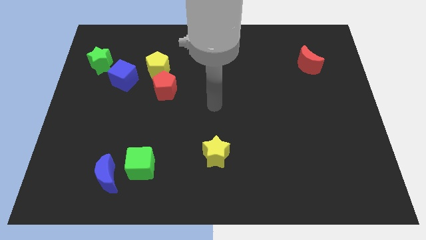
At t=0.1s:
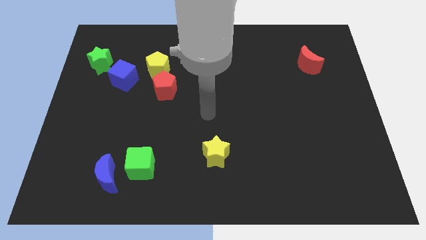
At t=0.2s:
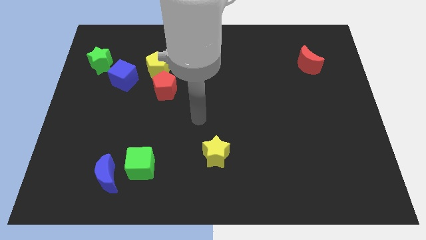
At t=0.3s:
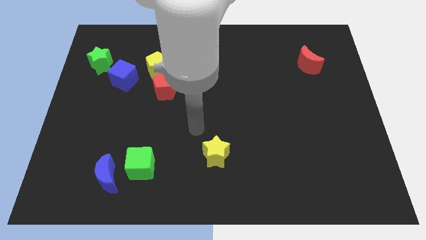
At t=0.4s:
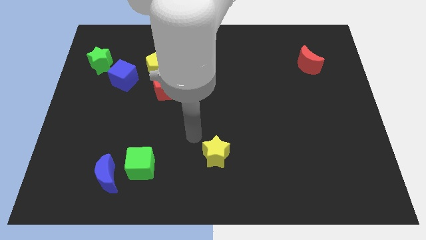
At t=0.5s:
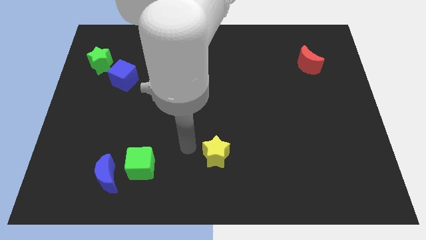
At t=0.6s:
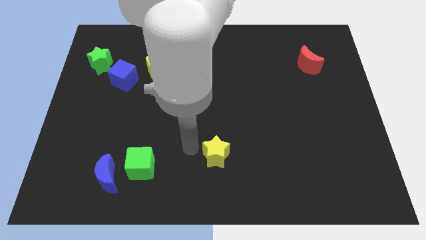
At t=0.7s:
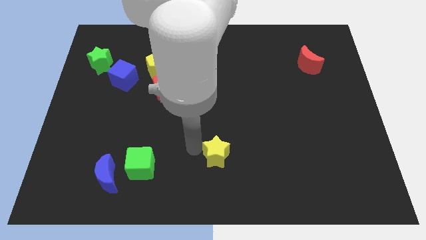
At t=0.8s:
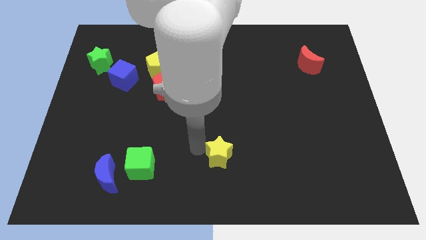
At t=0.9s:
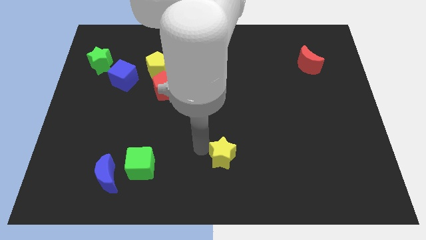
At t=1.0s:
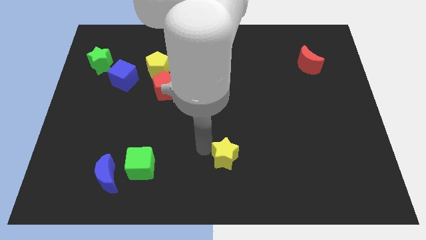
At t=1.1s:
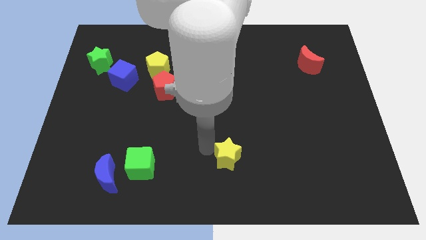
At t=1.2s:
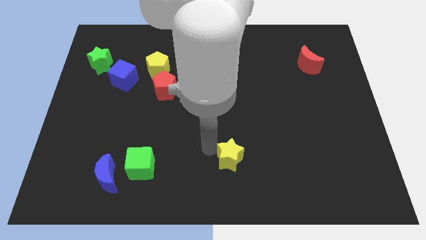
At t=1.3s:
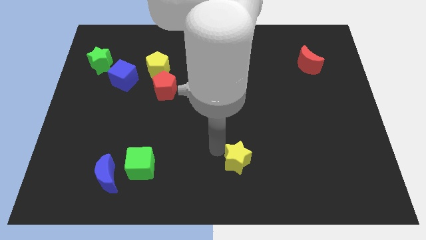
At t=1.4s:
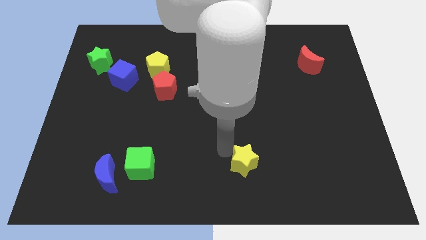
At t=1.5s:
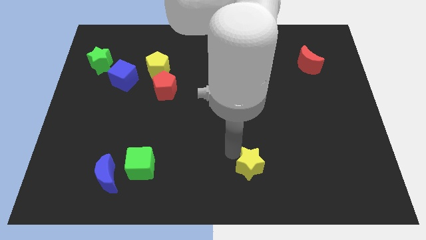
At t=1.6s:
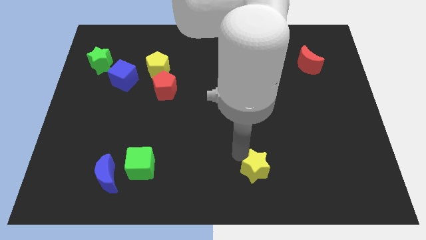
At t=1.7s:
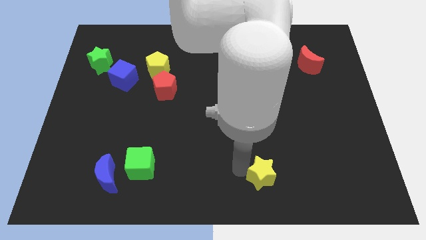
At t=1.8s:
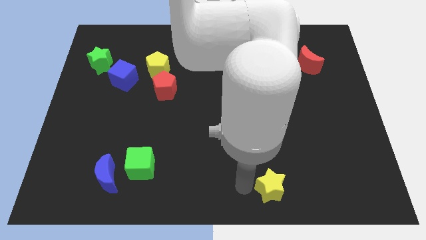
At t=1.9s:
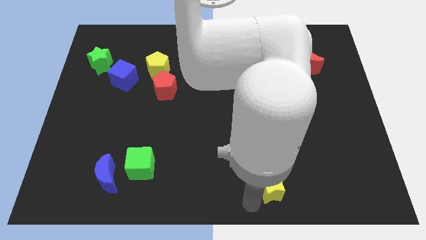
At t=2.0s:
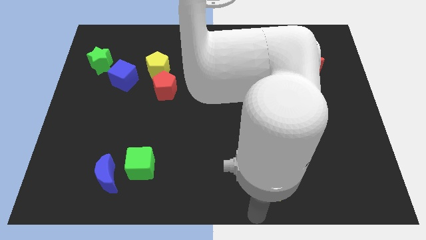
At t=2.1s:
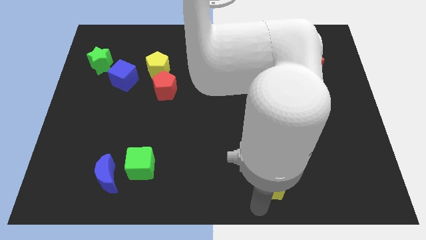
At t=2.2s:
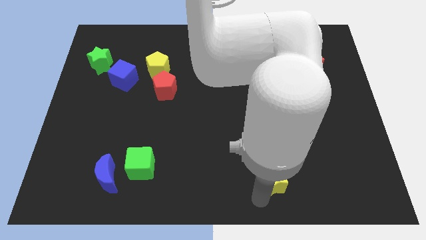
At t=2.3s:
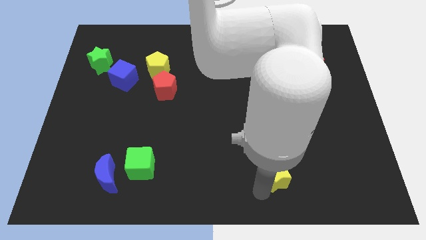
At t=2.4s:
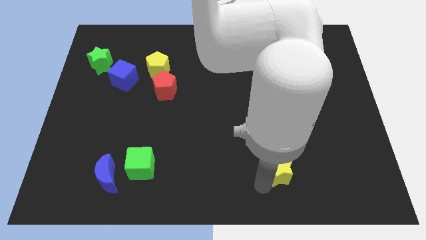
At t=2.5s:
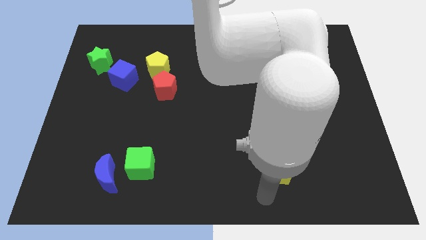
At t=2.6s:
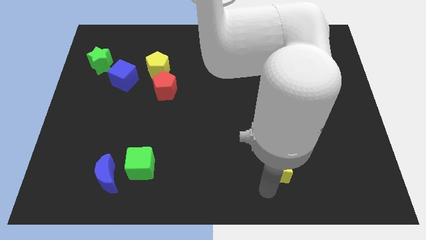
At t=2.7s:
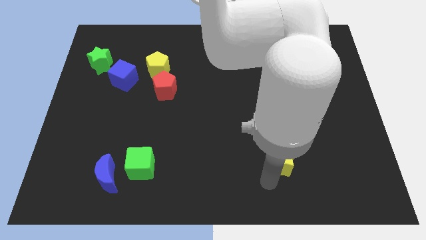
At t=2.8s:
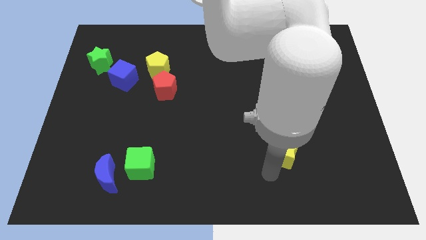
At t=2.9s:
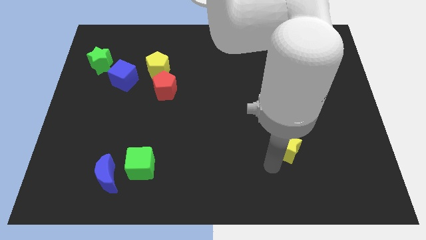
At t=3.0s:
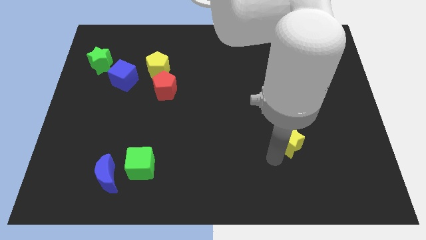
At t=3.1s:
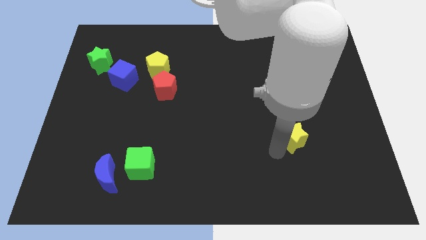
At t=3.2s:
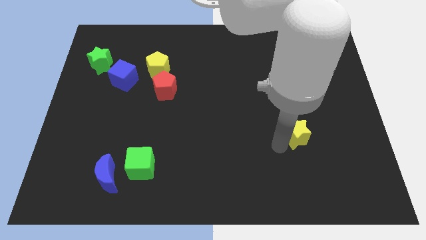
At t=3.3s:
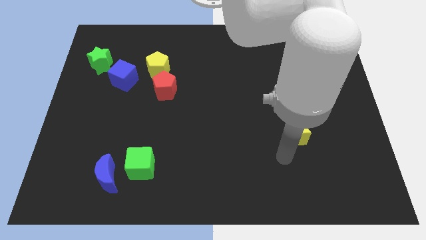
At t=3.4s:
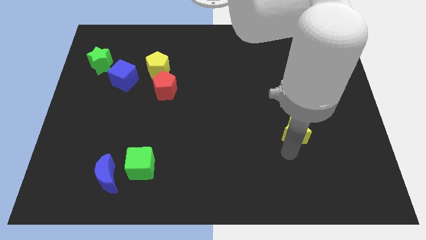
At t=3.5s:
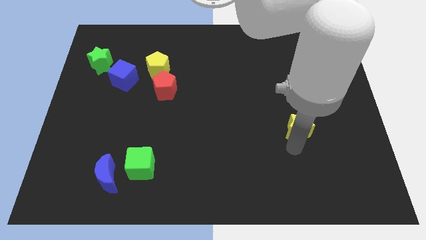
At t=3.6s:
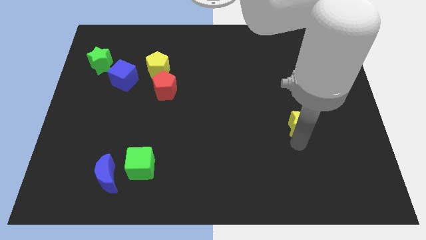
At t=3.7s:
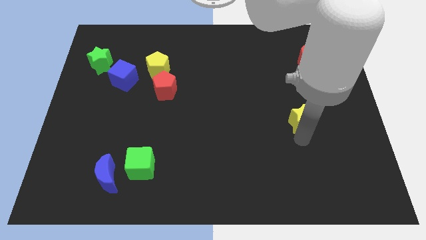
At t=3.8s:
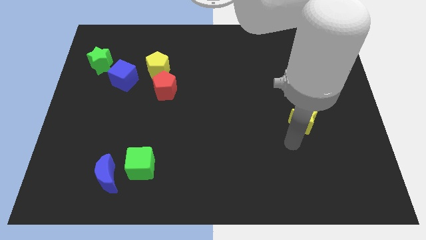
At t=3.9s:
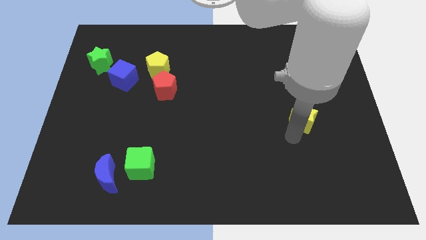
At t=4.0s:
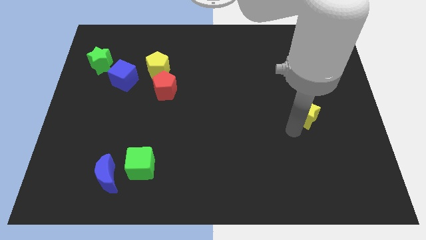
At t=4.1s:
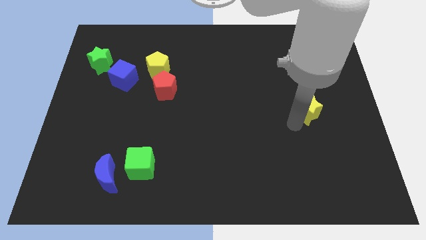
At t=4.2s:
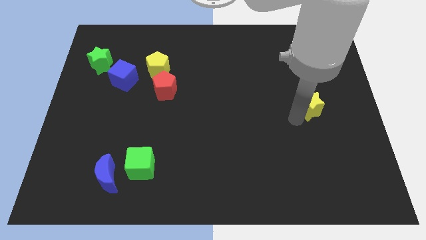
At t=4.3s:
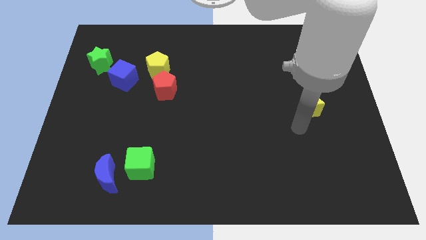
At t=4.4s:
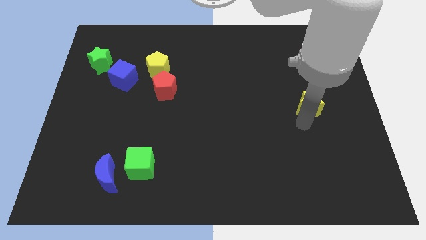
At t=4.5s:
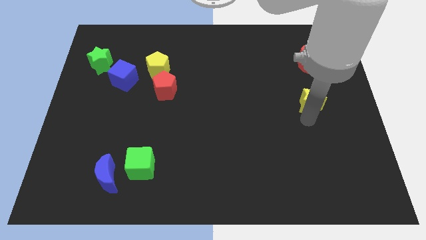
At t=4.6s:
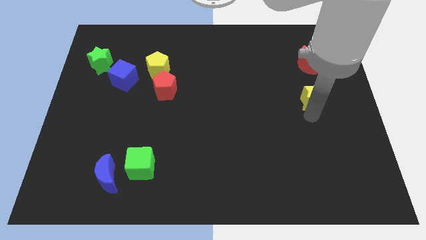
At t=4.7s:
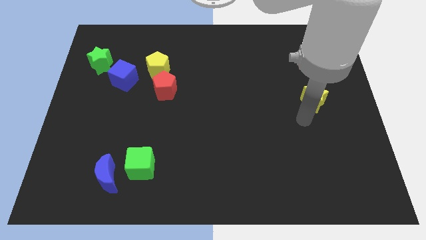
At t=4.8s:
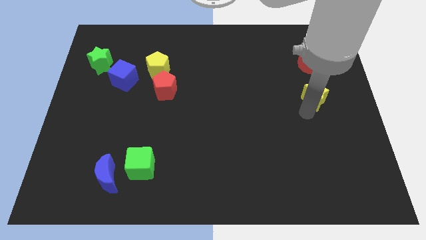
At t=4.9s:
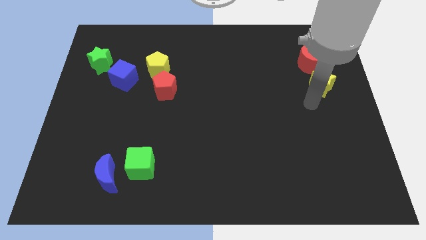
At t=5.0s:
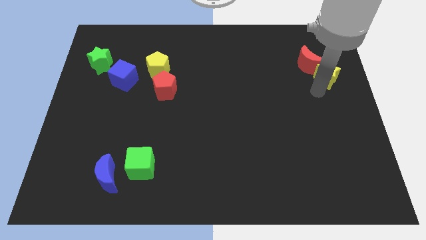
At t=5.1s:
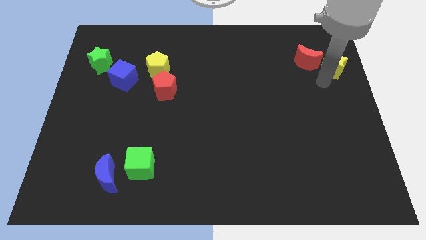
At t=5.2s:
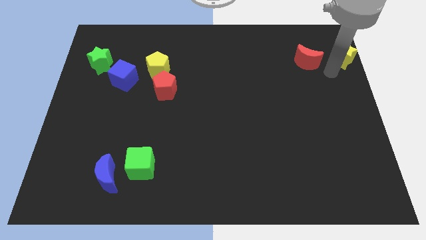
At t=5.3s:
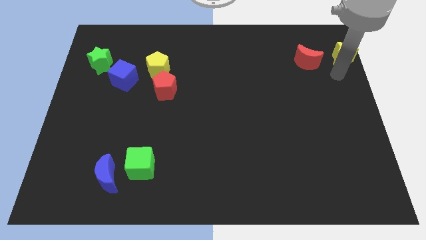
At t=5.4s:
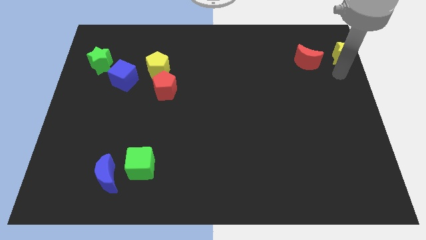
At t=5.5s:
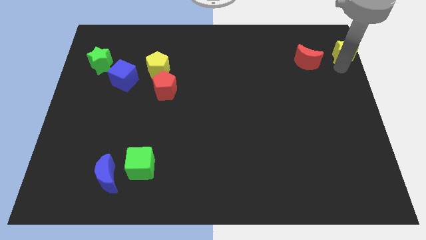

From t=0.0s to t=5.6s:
push the yellow star to the upper right corner

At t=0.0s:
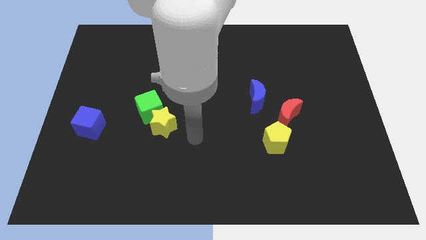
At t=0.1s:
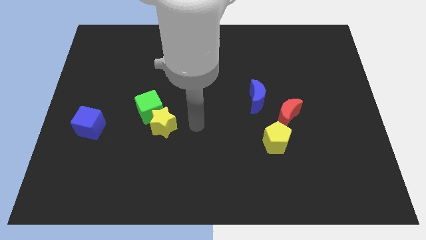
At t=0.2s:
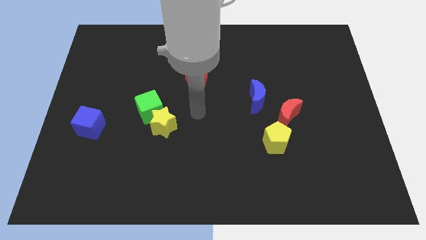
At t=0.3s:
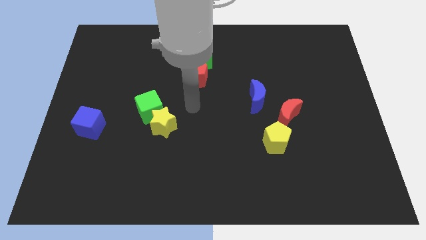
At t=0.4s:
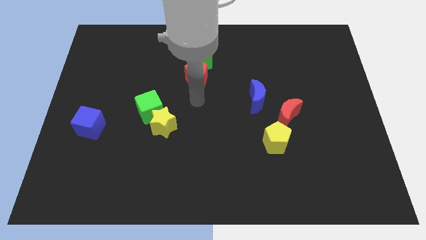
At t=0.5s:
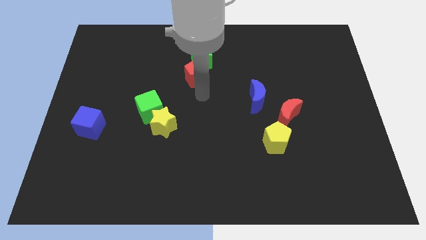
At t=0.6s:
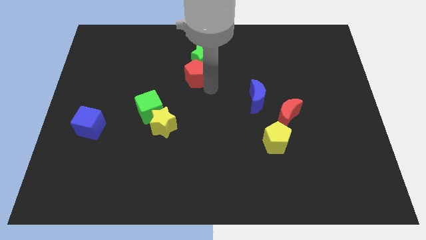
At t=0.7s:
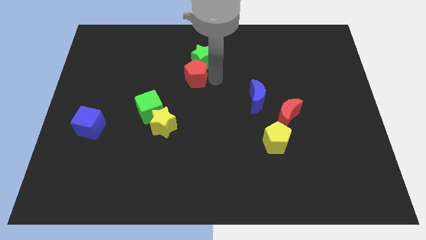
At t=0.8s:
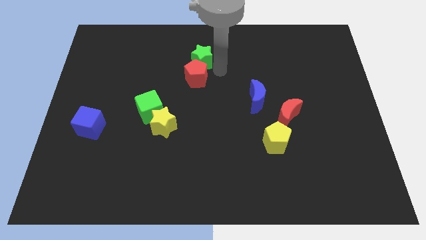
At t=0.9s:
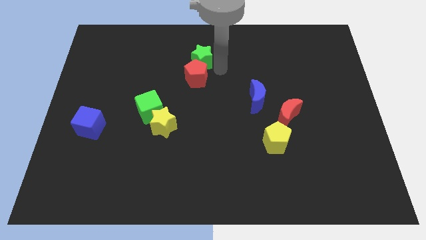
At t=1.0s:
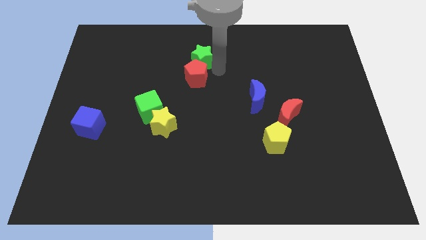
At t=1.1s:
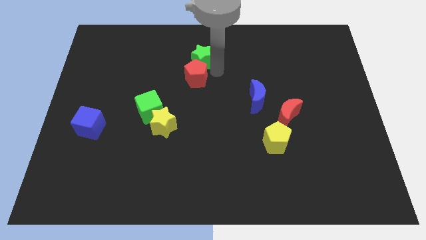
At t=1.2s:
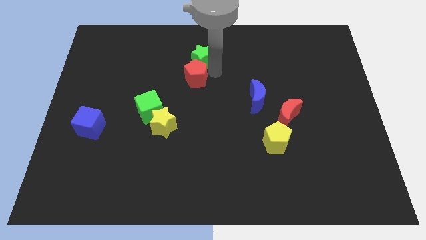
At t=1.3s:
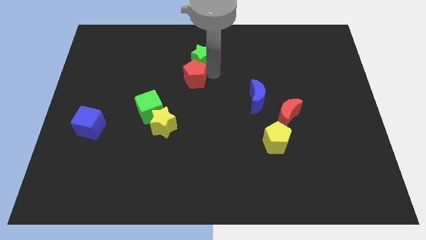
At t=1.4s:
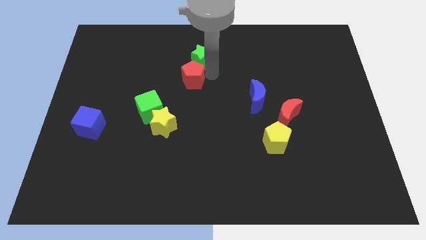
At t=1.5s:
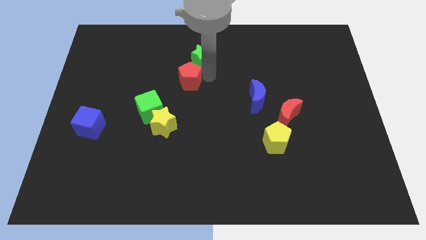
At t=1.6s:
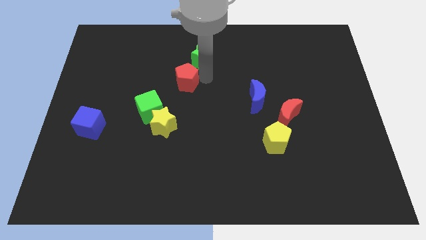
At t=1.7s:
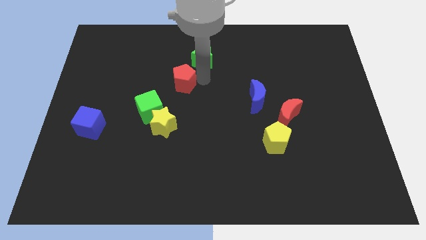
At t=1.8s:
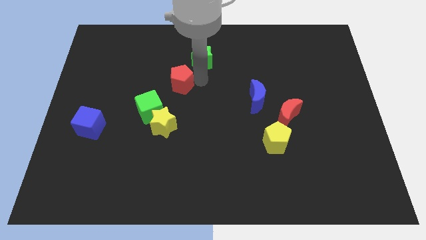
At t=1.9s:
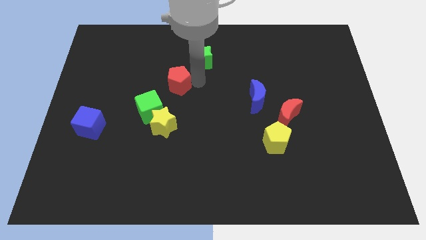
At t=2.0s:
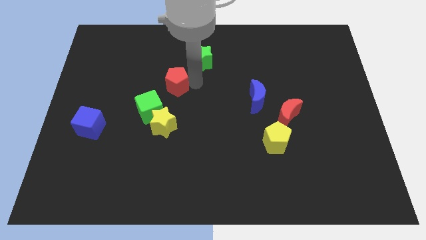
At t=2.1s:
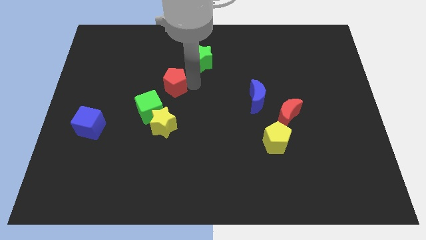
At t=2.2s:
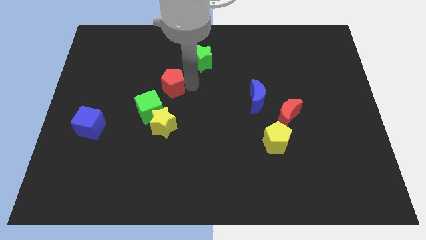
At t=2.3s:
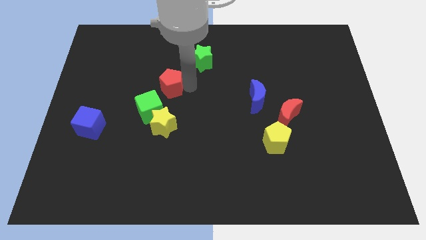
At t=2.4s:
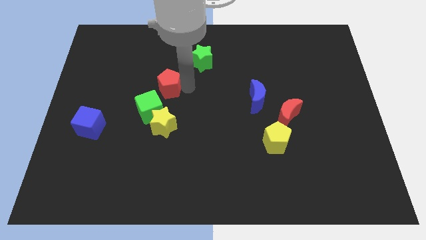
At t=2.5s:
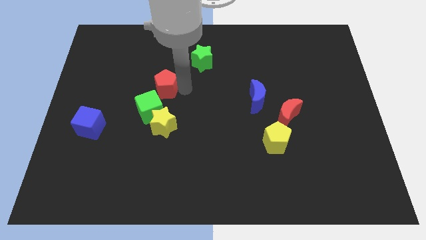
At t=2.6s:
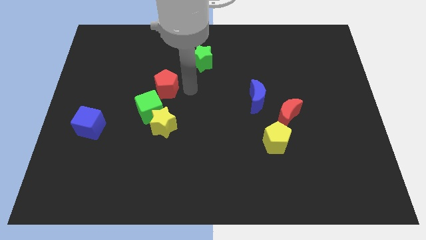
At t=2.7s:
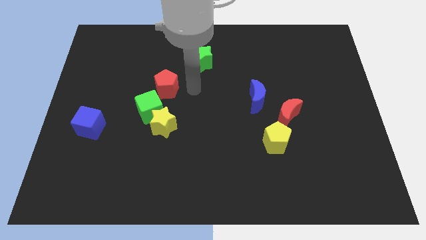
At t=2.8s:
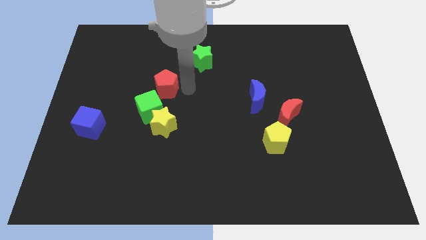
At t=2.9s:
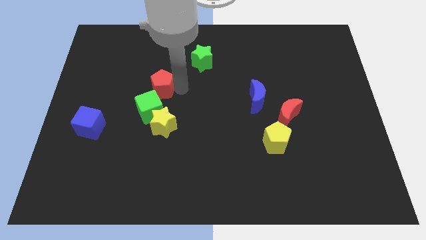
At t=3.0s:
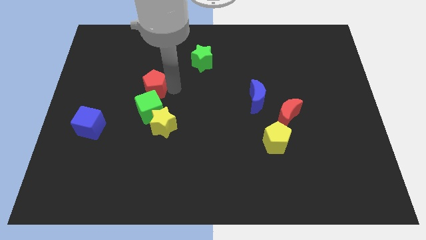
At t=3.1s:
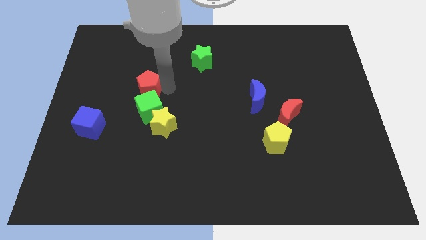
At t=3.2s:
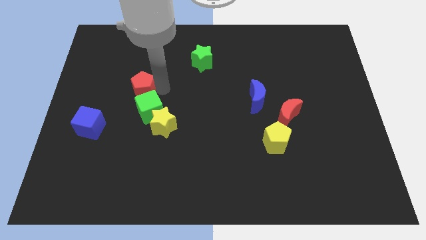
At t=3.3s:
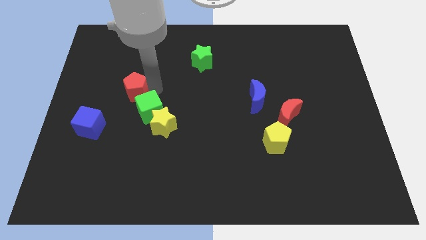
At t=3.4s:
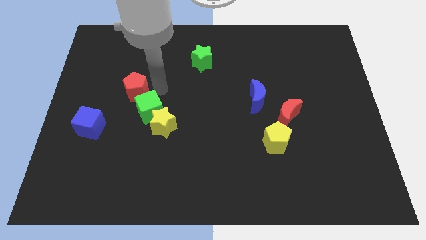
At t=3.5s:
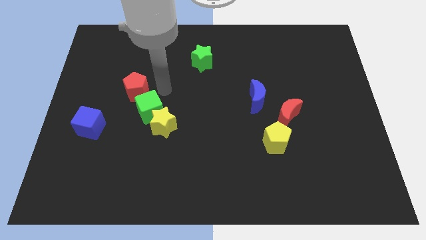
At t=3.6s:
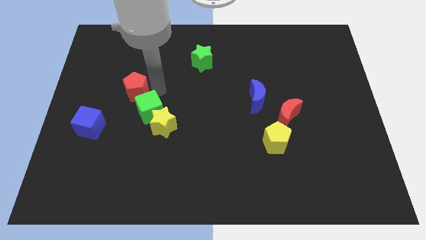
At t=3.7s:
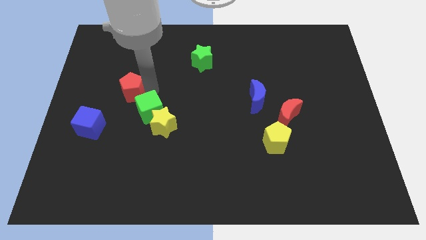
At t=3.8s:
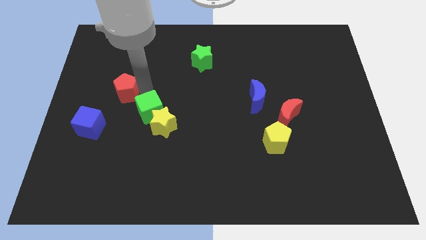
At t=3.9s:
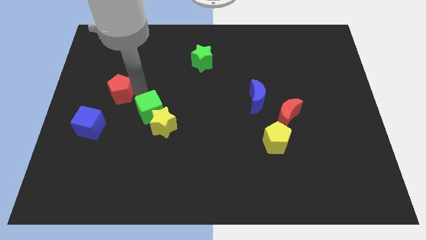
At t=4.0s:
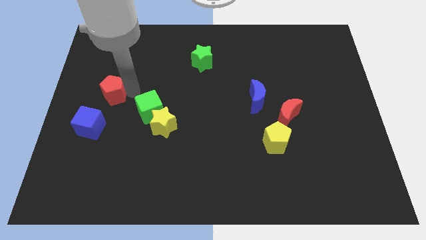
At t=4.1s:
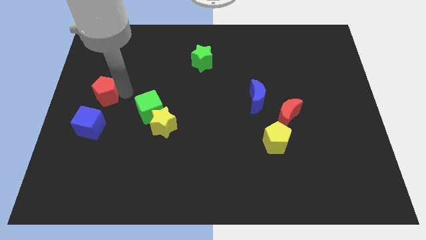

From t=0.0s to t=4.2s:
move the red pentagon to the left side
